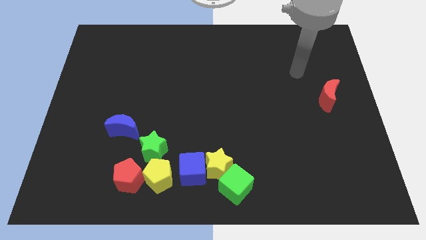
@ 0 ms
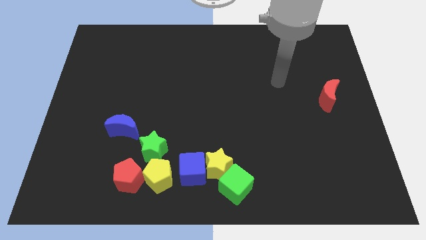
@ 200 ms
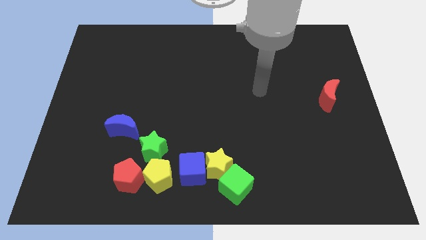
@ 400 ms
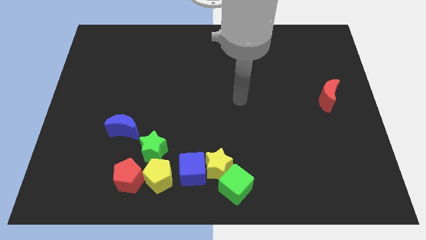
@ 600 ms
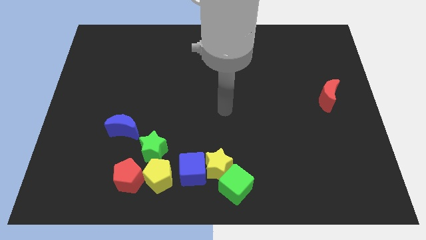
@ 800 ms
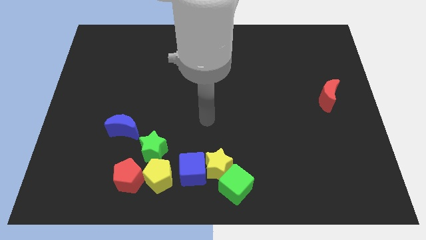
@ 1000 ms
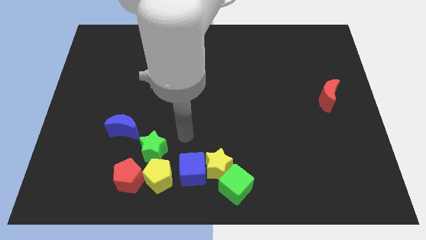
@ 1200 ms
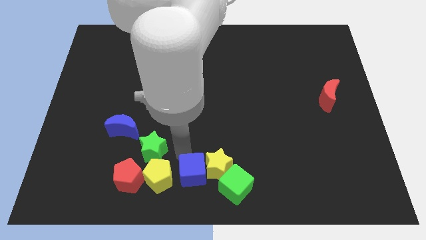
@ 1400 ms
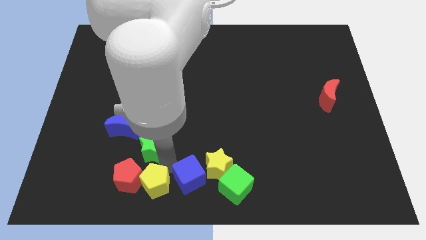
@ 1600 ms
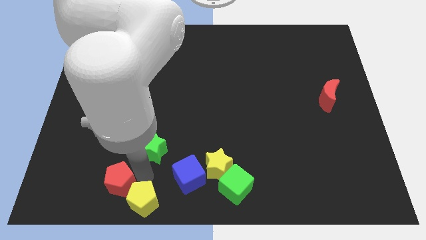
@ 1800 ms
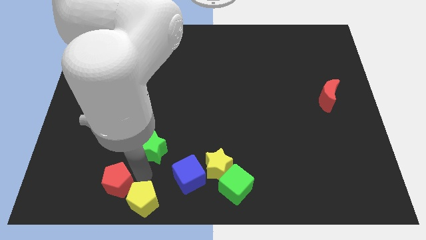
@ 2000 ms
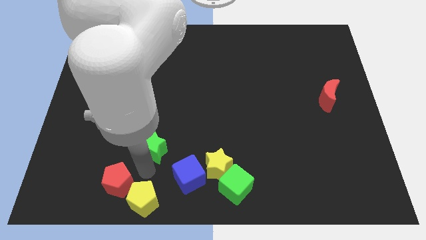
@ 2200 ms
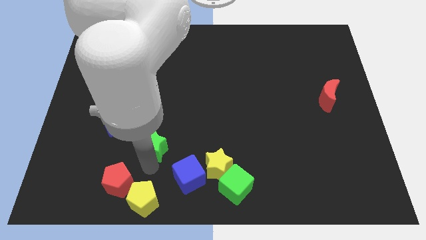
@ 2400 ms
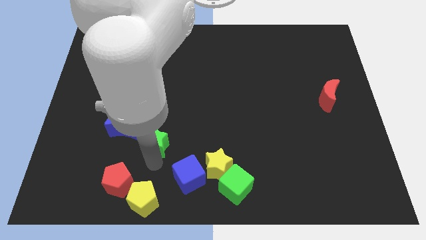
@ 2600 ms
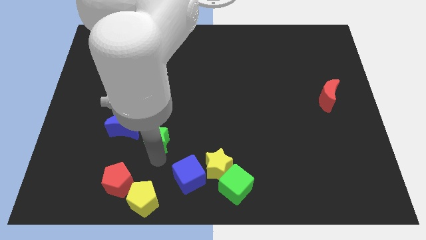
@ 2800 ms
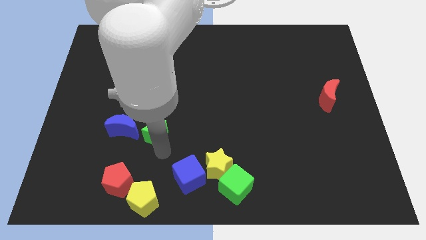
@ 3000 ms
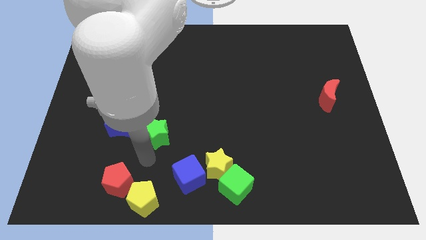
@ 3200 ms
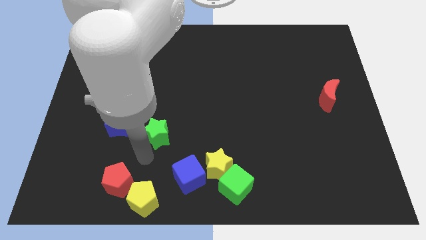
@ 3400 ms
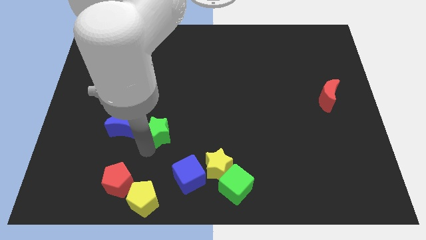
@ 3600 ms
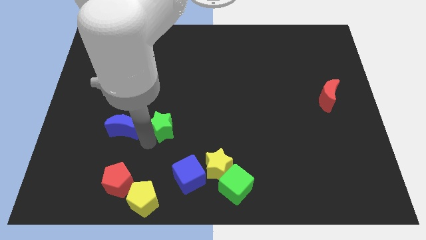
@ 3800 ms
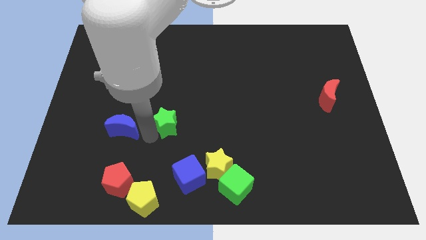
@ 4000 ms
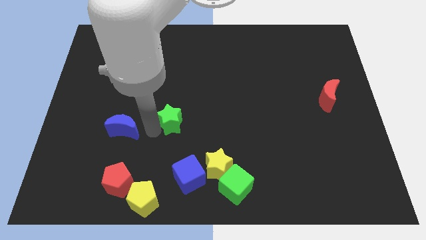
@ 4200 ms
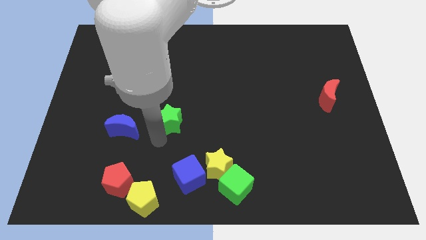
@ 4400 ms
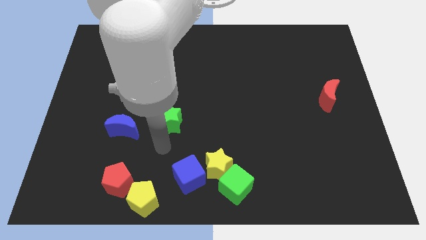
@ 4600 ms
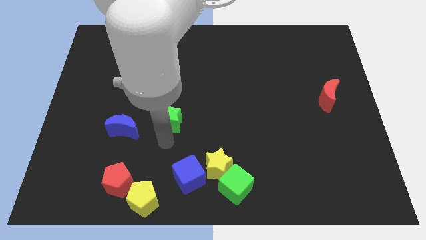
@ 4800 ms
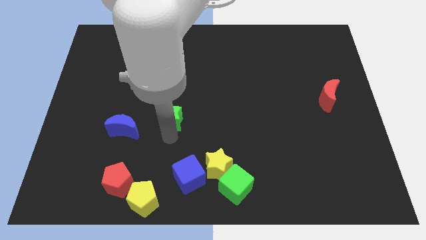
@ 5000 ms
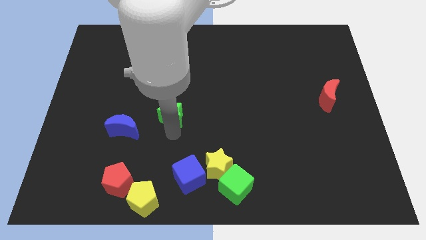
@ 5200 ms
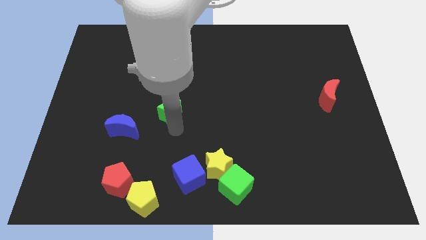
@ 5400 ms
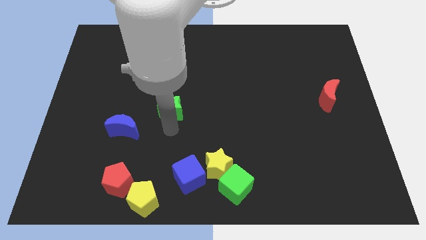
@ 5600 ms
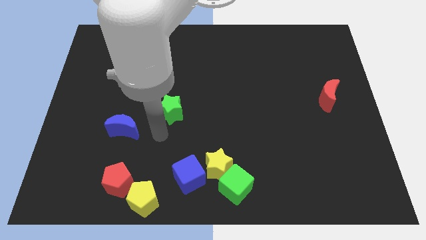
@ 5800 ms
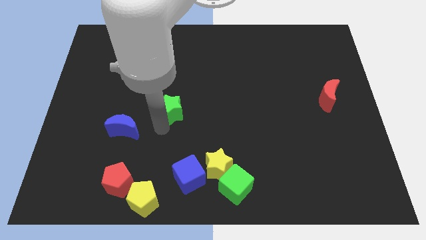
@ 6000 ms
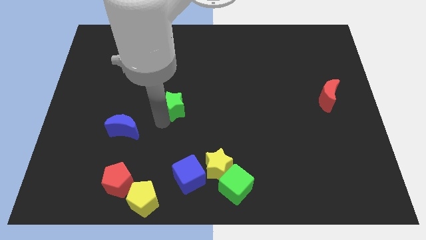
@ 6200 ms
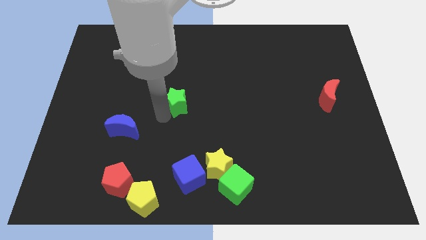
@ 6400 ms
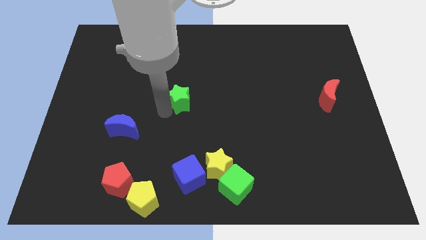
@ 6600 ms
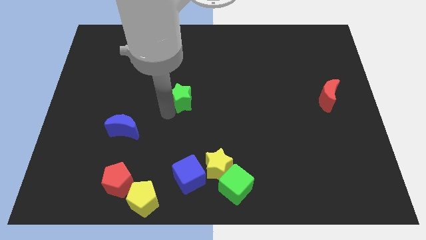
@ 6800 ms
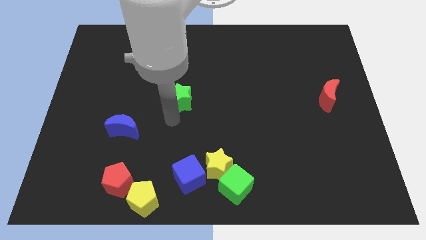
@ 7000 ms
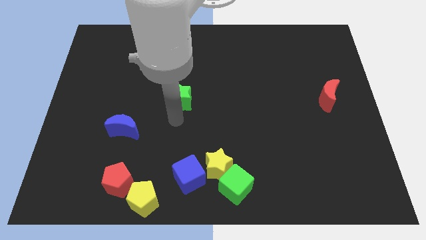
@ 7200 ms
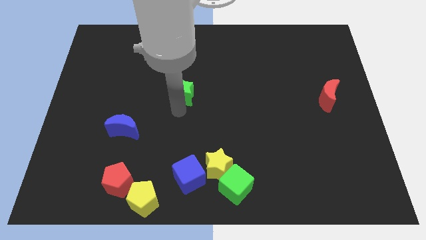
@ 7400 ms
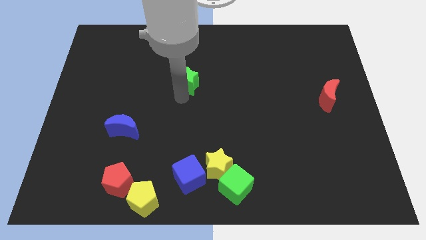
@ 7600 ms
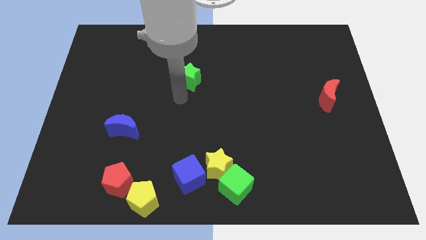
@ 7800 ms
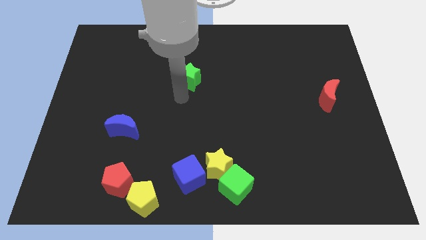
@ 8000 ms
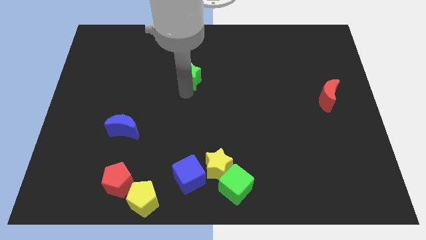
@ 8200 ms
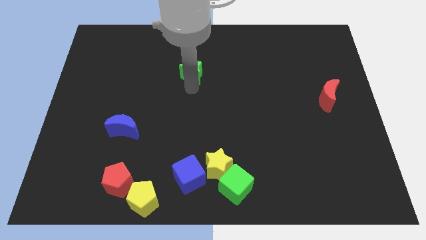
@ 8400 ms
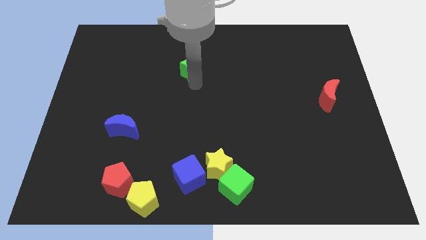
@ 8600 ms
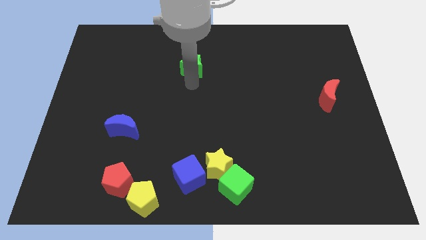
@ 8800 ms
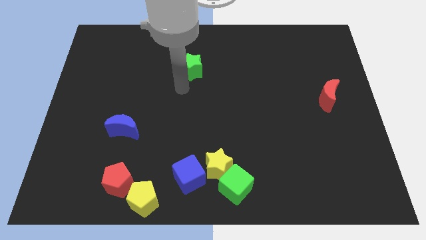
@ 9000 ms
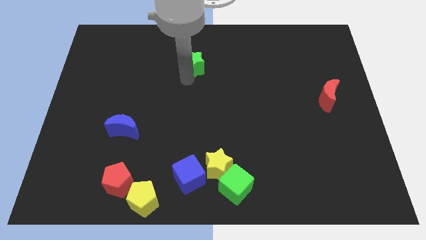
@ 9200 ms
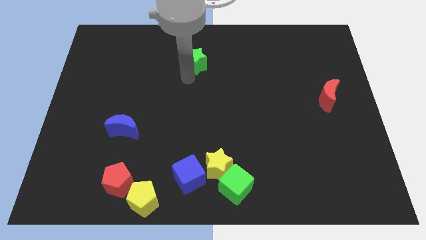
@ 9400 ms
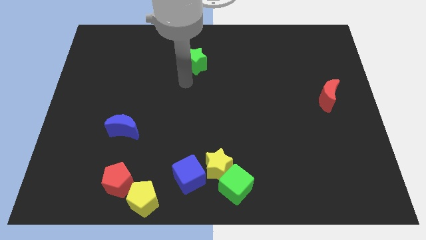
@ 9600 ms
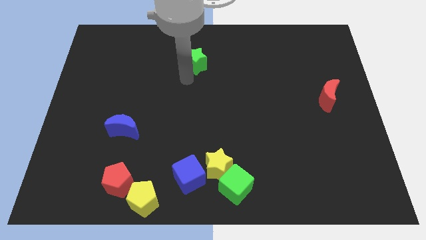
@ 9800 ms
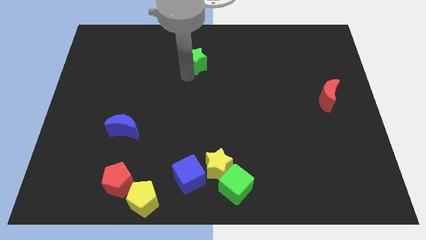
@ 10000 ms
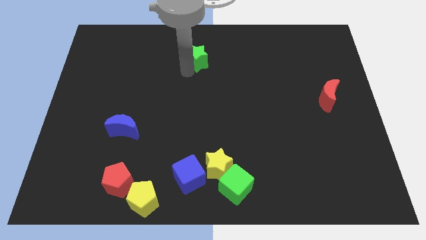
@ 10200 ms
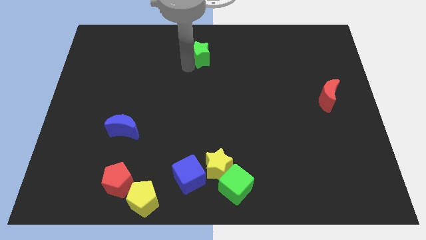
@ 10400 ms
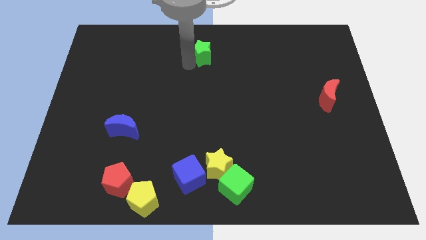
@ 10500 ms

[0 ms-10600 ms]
move the green star to the top

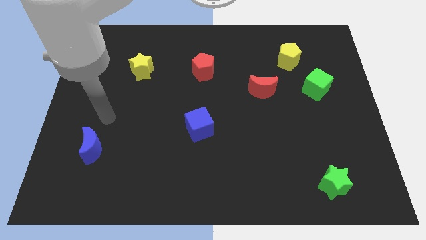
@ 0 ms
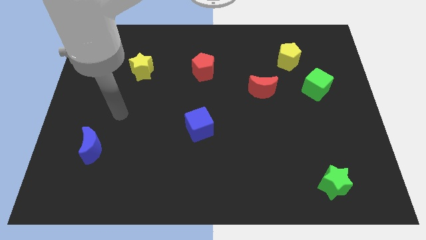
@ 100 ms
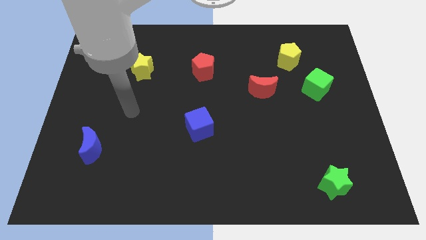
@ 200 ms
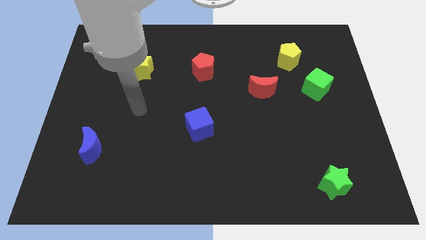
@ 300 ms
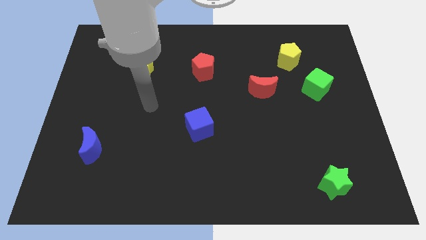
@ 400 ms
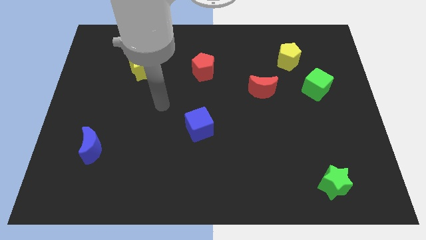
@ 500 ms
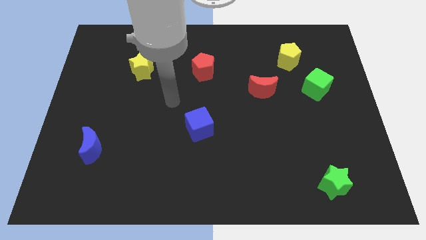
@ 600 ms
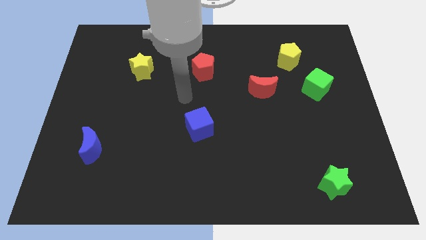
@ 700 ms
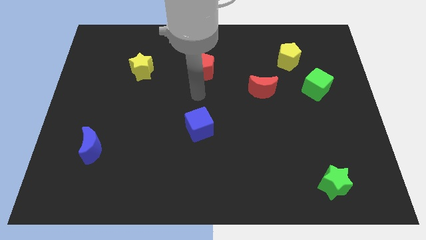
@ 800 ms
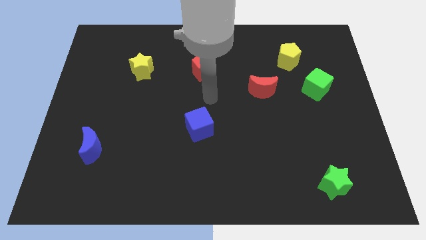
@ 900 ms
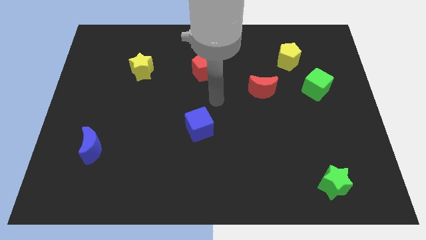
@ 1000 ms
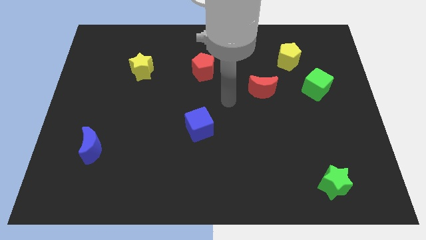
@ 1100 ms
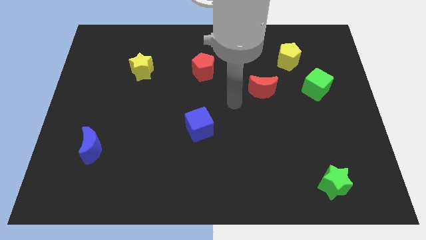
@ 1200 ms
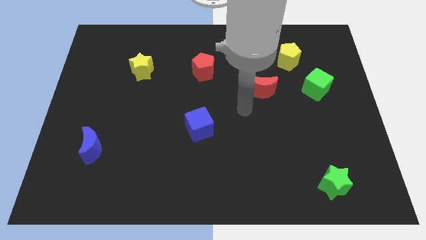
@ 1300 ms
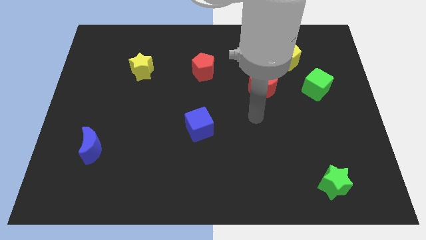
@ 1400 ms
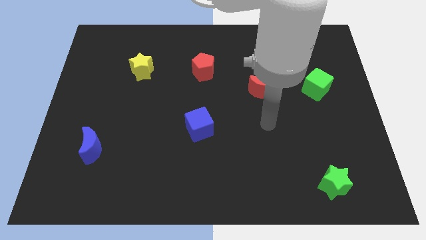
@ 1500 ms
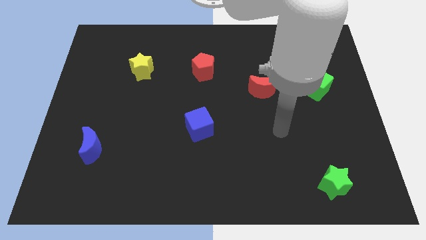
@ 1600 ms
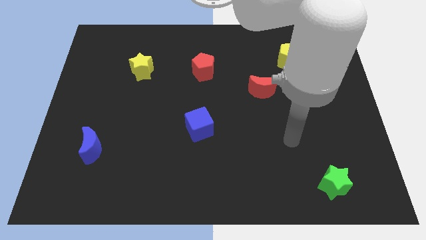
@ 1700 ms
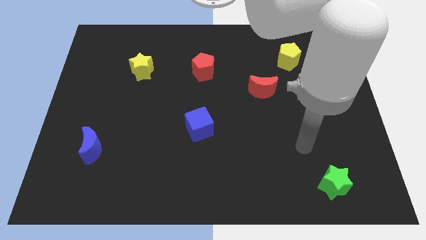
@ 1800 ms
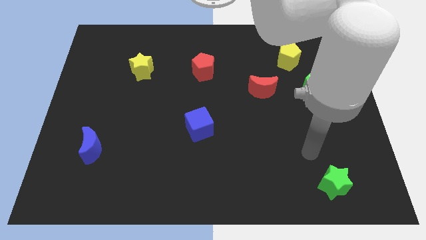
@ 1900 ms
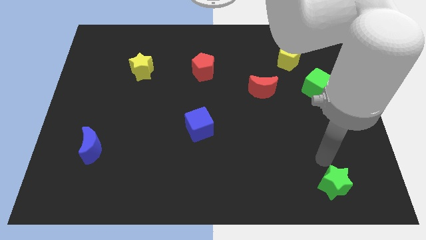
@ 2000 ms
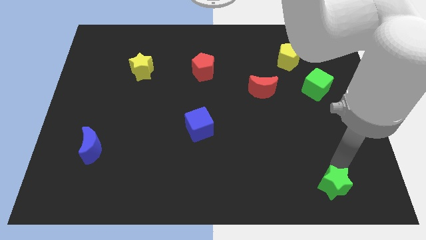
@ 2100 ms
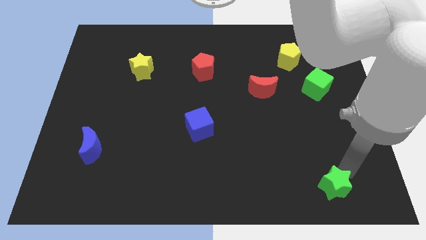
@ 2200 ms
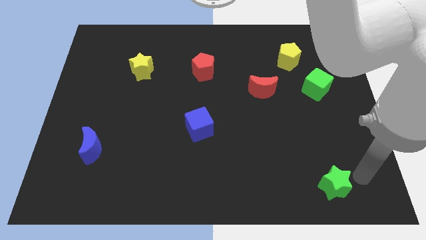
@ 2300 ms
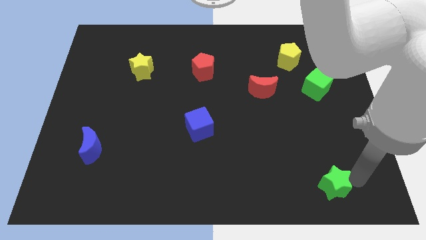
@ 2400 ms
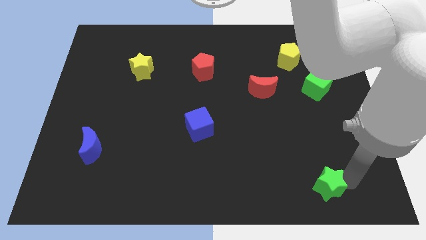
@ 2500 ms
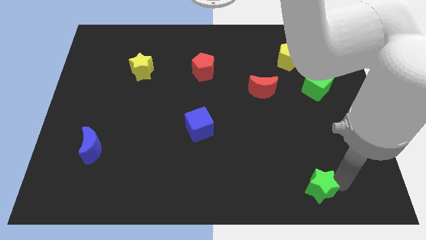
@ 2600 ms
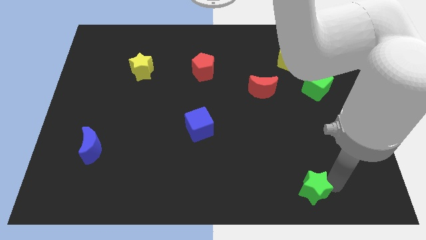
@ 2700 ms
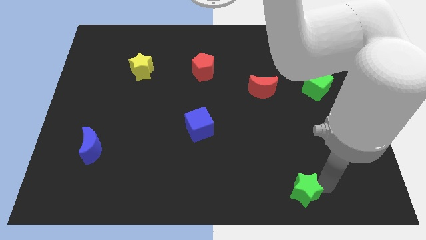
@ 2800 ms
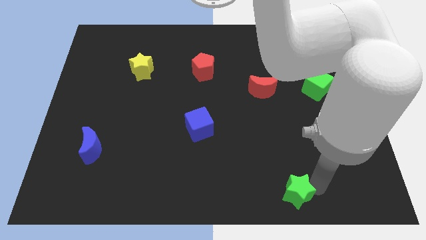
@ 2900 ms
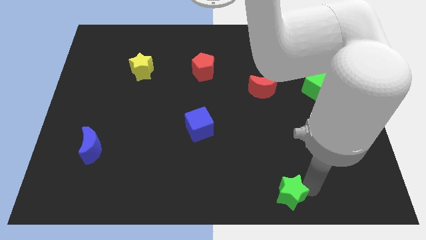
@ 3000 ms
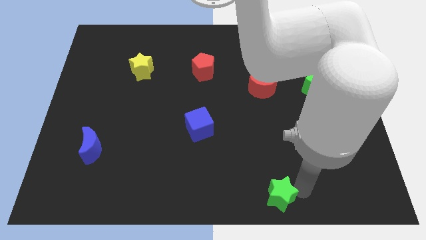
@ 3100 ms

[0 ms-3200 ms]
put the green star to the bottom
